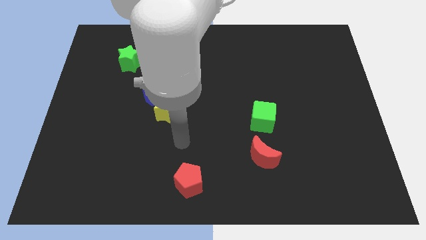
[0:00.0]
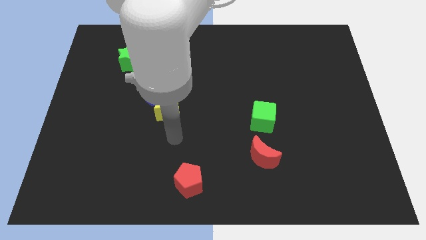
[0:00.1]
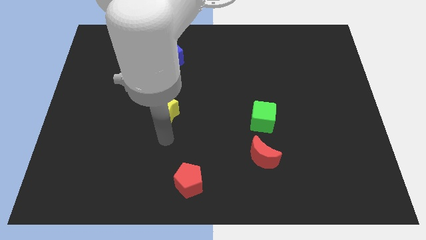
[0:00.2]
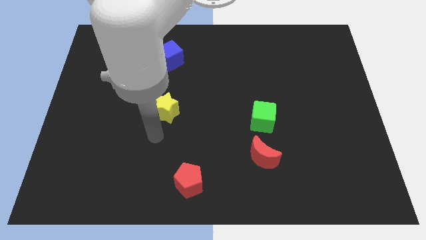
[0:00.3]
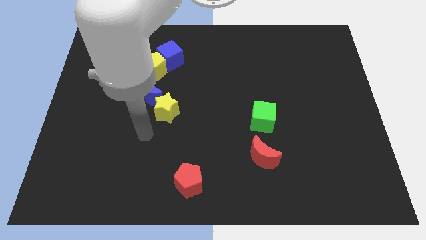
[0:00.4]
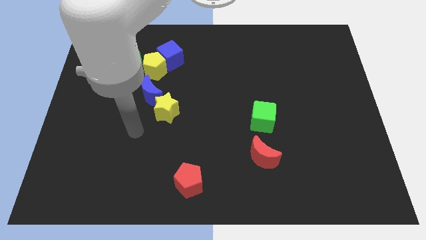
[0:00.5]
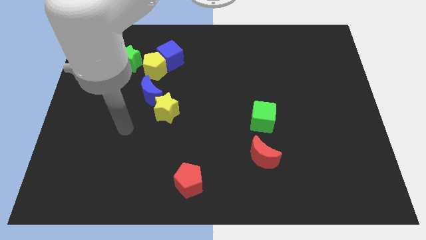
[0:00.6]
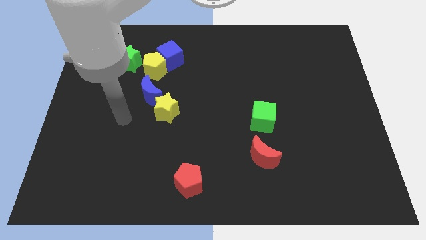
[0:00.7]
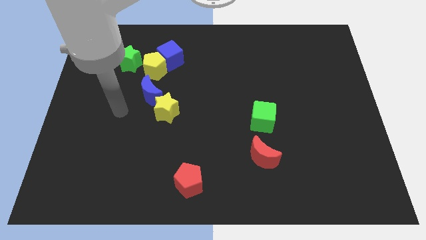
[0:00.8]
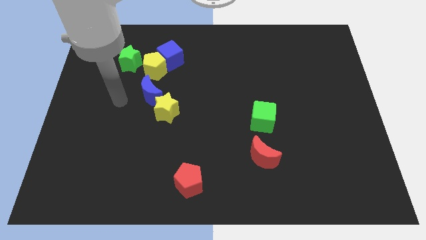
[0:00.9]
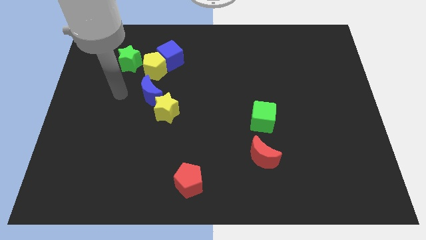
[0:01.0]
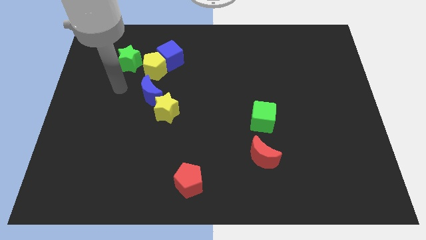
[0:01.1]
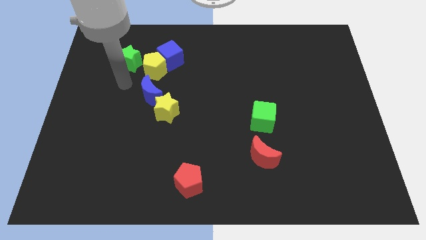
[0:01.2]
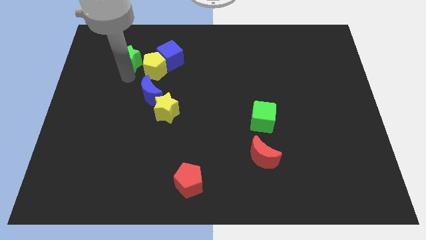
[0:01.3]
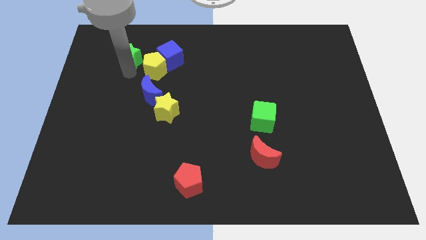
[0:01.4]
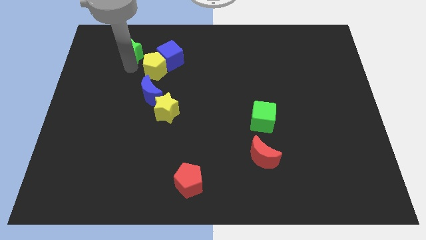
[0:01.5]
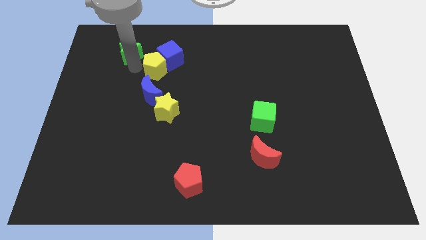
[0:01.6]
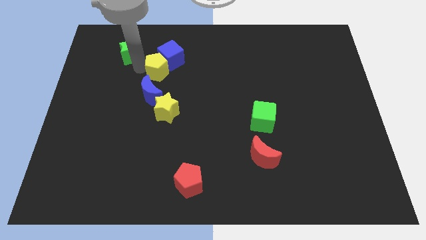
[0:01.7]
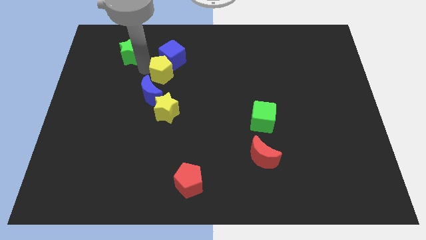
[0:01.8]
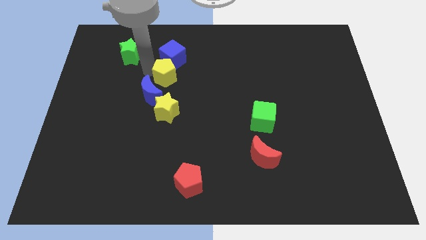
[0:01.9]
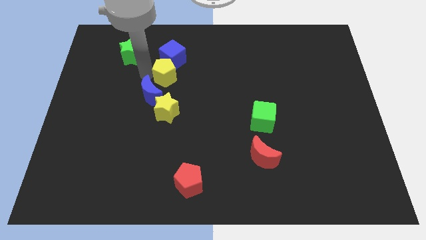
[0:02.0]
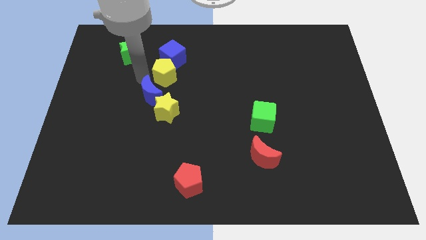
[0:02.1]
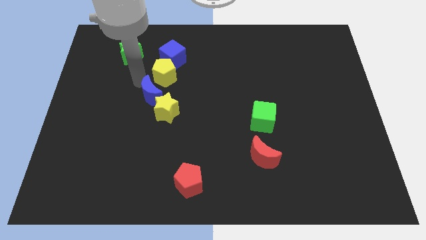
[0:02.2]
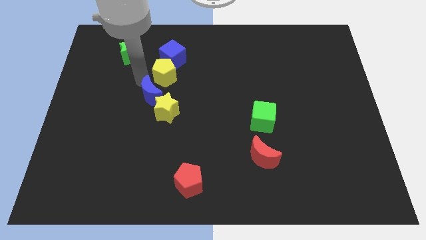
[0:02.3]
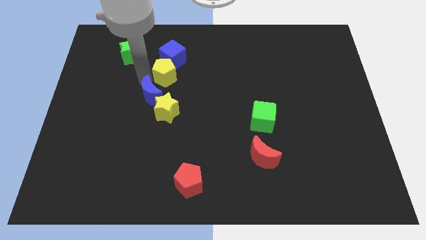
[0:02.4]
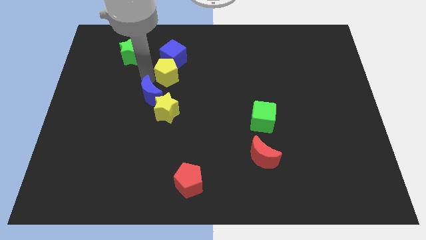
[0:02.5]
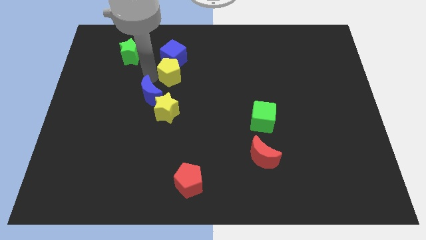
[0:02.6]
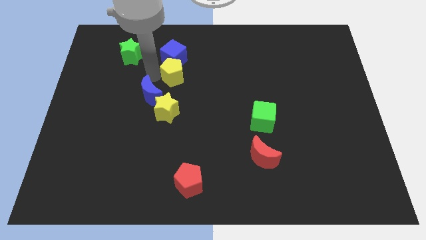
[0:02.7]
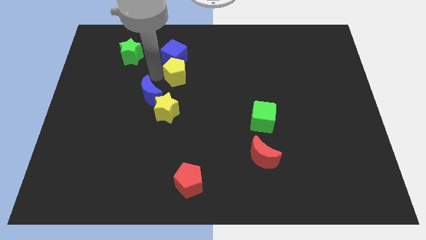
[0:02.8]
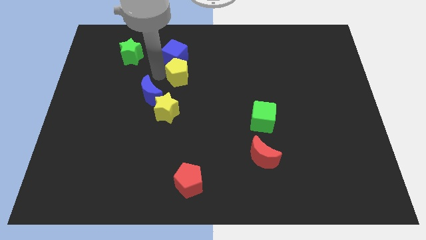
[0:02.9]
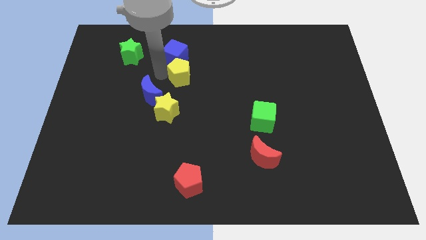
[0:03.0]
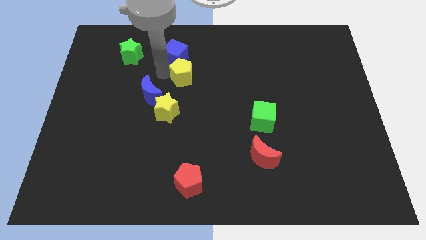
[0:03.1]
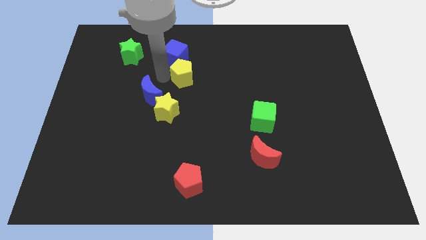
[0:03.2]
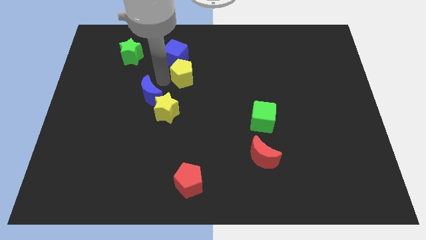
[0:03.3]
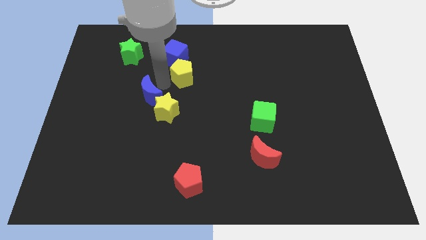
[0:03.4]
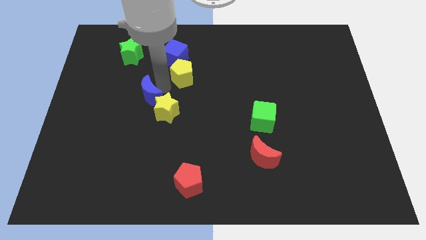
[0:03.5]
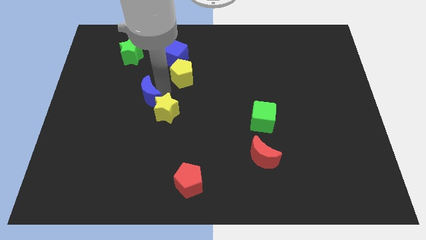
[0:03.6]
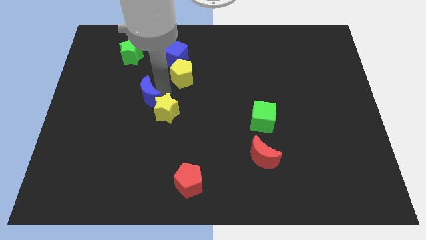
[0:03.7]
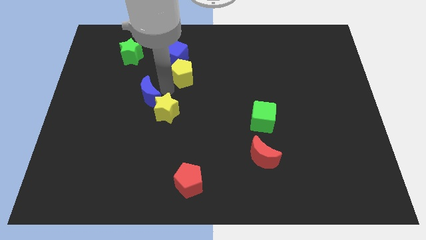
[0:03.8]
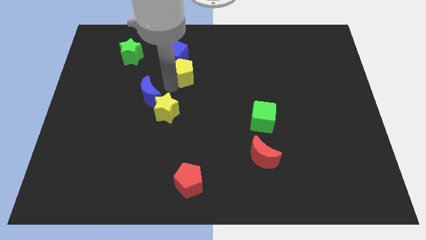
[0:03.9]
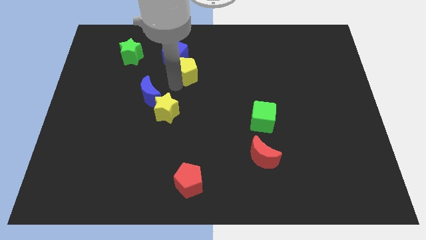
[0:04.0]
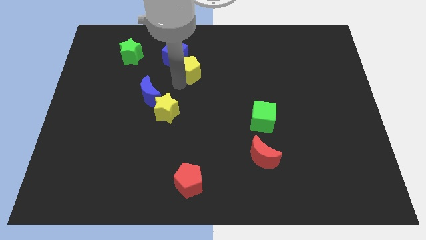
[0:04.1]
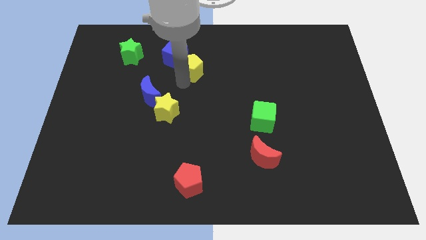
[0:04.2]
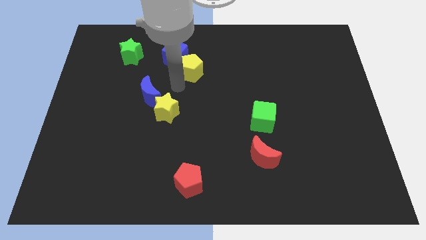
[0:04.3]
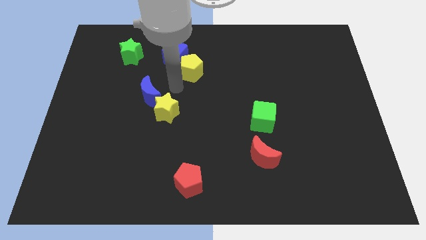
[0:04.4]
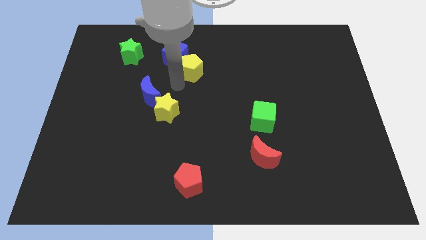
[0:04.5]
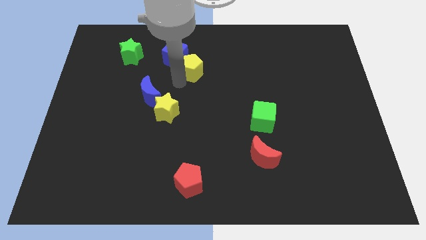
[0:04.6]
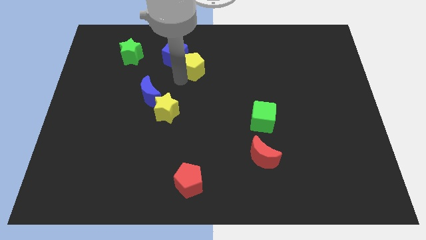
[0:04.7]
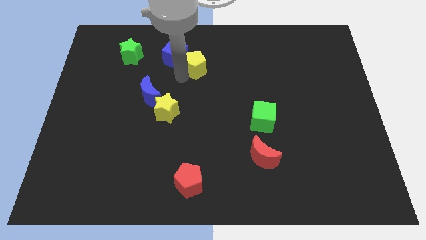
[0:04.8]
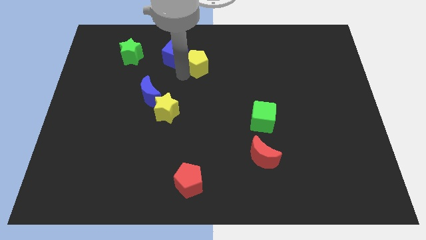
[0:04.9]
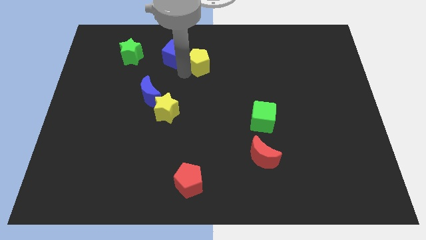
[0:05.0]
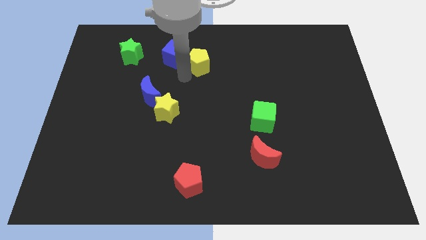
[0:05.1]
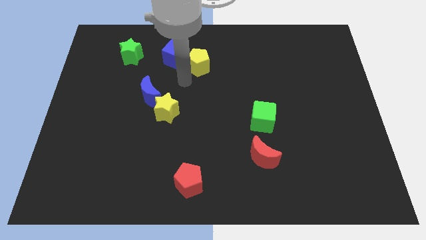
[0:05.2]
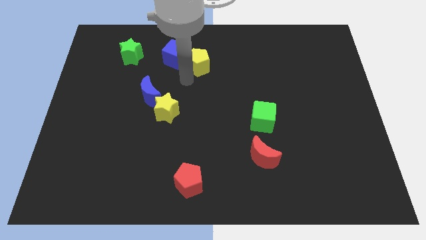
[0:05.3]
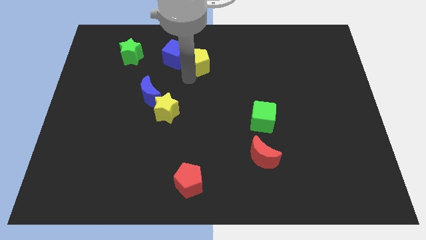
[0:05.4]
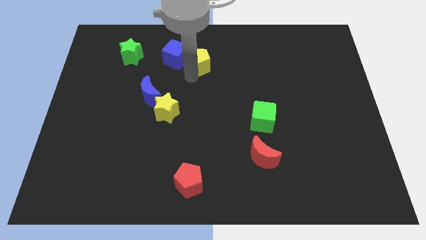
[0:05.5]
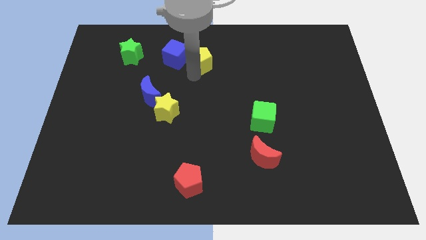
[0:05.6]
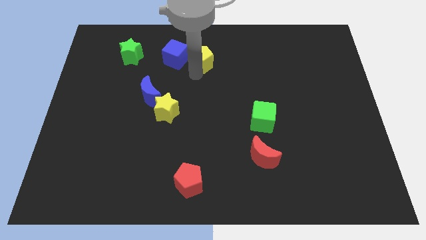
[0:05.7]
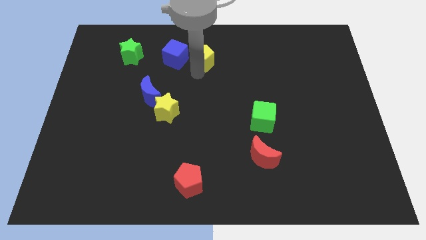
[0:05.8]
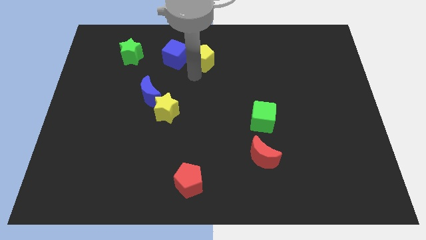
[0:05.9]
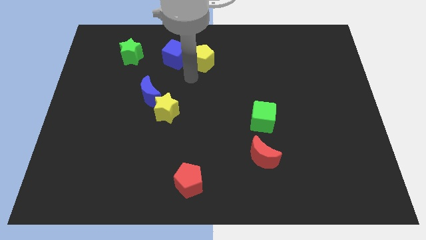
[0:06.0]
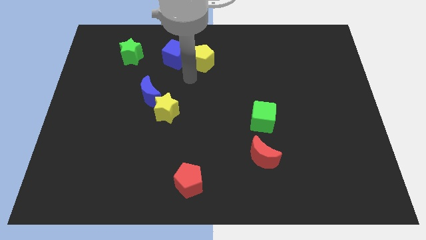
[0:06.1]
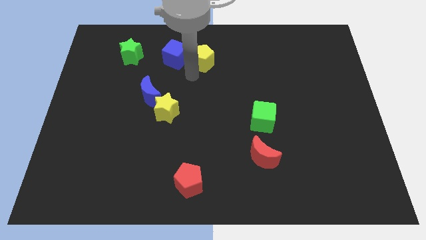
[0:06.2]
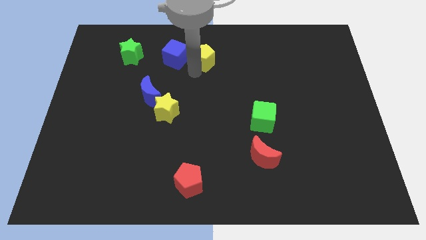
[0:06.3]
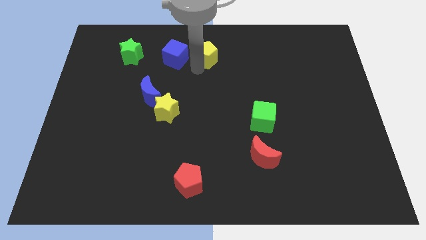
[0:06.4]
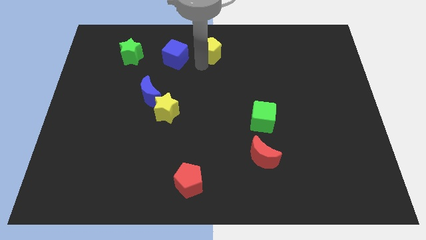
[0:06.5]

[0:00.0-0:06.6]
move the yellow pentagon to the top side
